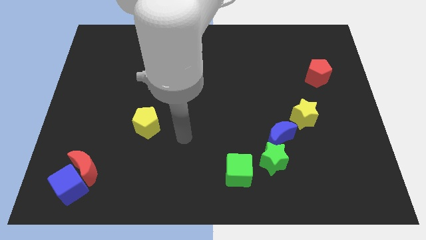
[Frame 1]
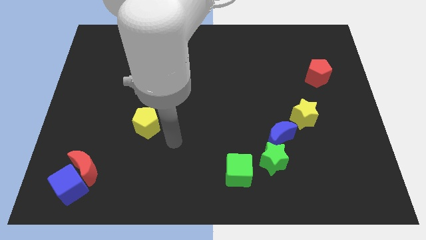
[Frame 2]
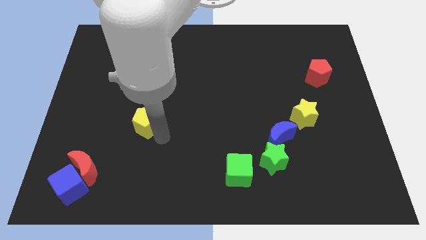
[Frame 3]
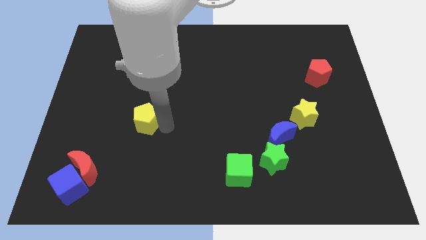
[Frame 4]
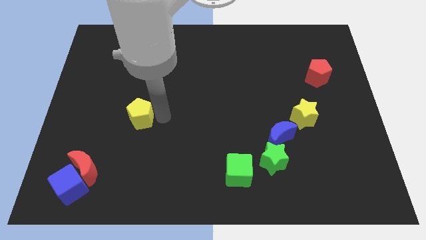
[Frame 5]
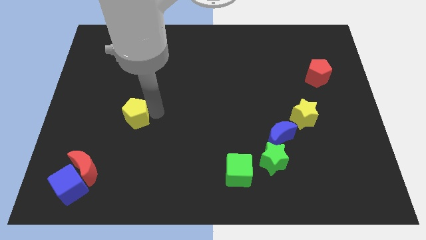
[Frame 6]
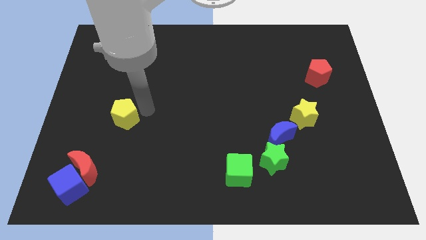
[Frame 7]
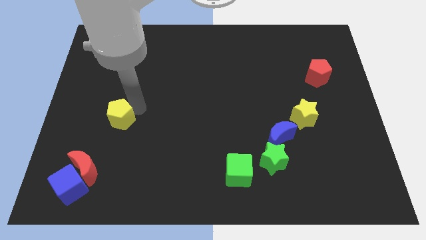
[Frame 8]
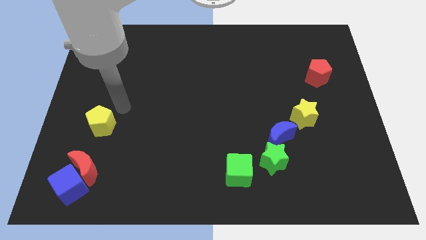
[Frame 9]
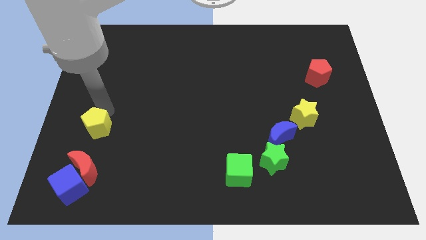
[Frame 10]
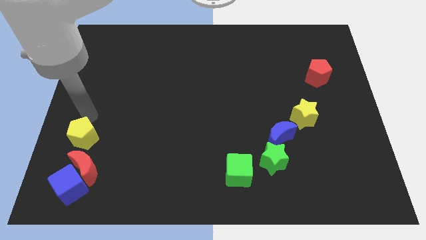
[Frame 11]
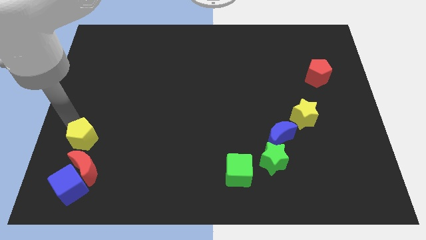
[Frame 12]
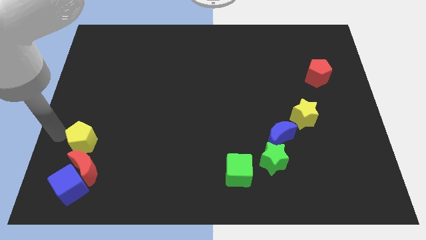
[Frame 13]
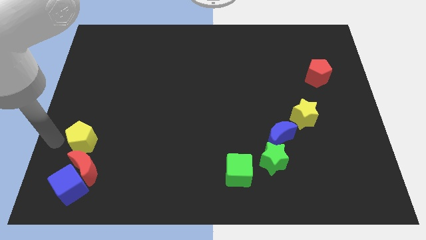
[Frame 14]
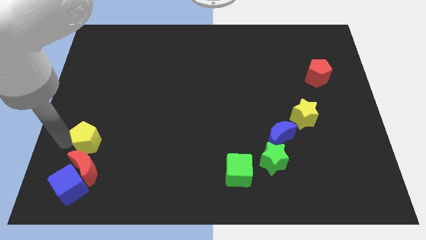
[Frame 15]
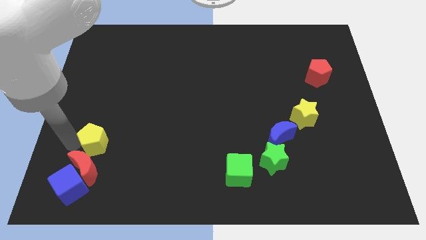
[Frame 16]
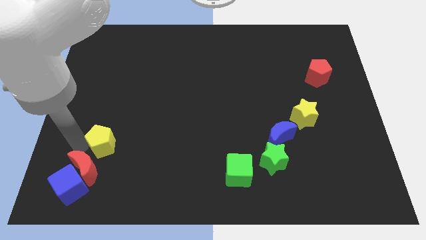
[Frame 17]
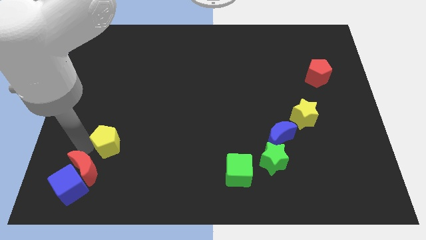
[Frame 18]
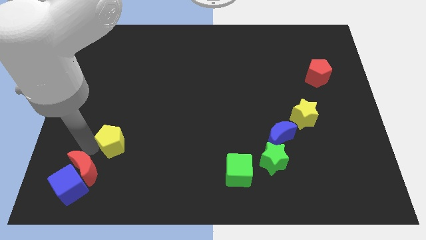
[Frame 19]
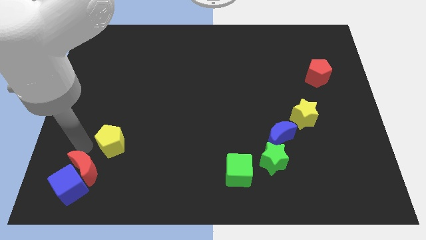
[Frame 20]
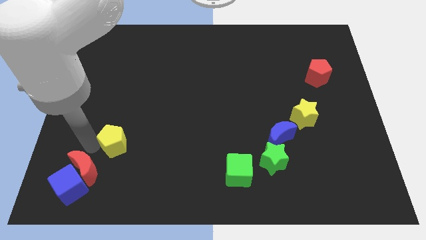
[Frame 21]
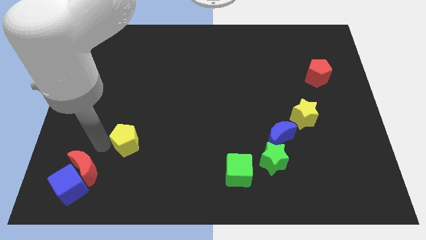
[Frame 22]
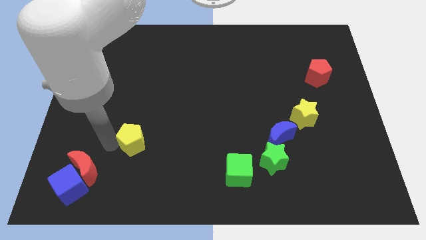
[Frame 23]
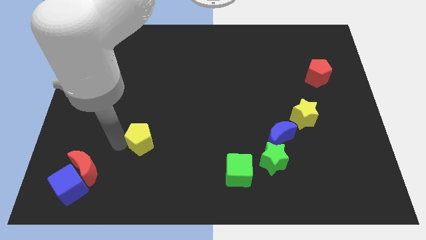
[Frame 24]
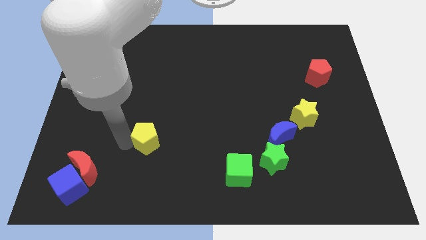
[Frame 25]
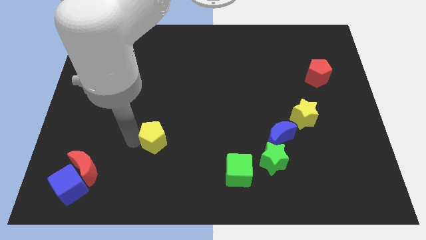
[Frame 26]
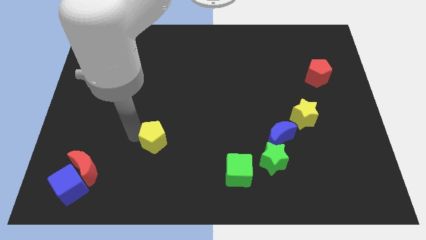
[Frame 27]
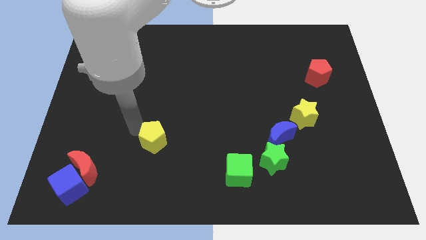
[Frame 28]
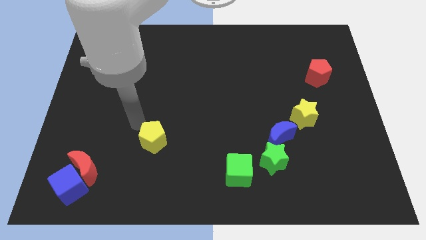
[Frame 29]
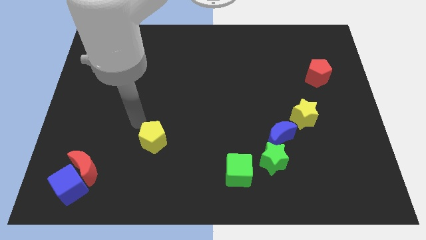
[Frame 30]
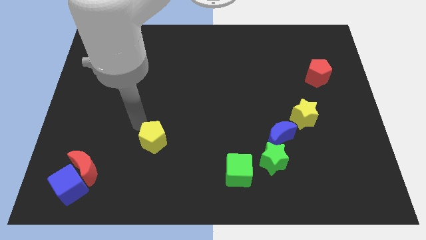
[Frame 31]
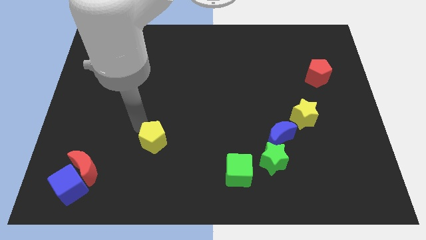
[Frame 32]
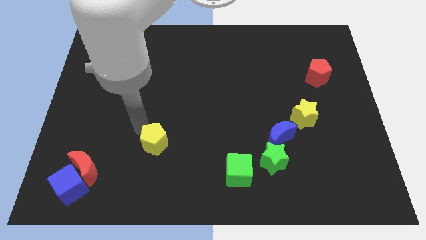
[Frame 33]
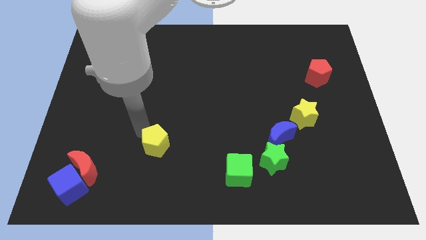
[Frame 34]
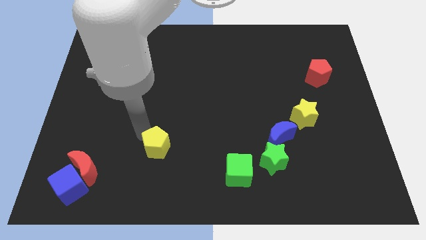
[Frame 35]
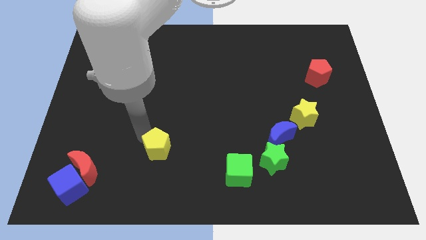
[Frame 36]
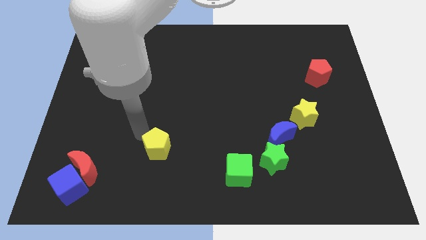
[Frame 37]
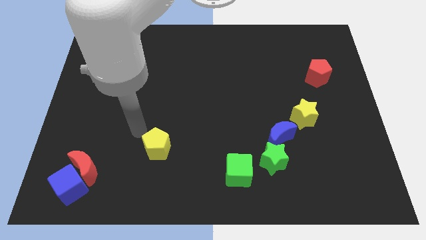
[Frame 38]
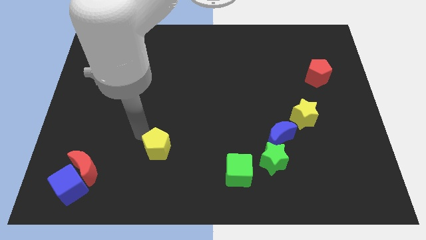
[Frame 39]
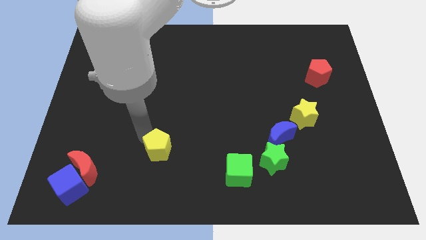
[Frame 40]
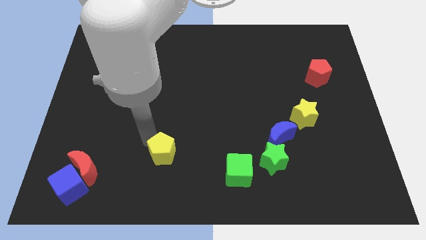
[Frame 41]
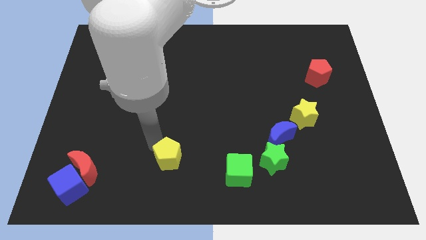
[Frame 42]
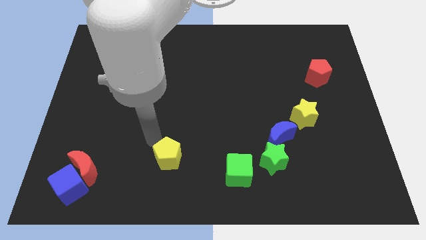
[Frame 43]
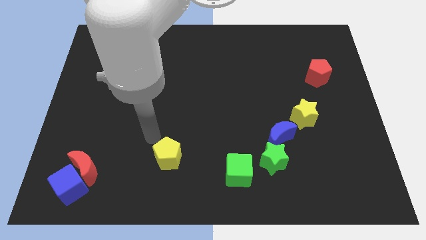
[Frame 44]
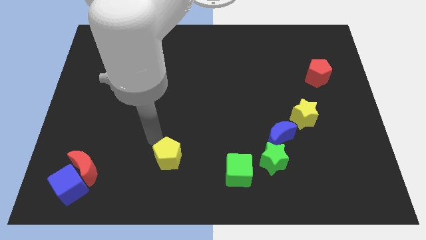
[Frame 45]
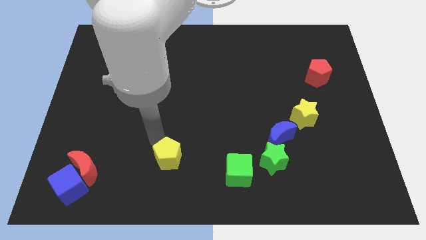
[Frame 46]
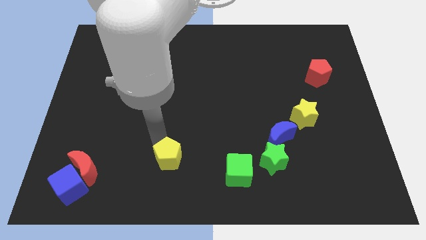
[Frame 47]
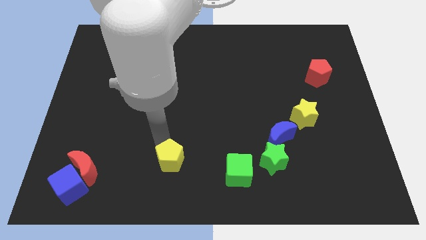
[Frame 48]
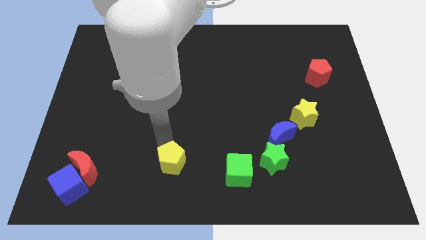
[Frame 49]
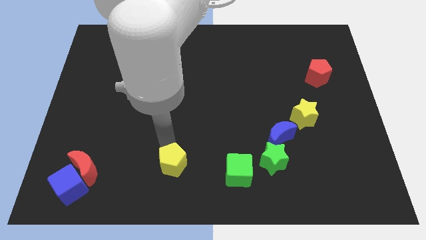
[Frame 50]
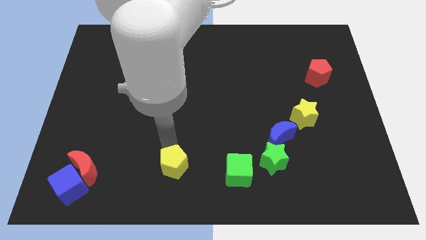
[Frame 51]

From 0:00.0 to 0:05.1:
slide the yellow pentagon to the bottom
